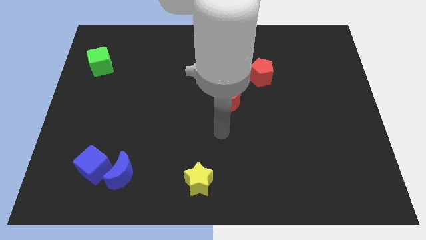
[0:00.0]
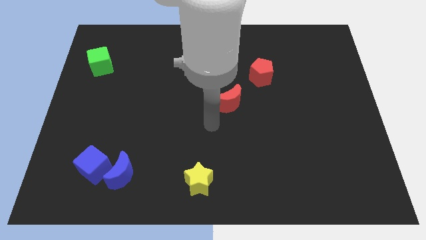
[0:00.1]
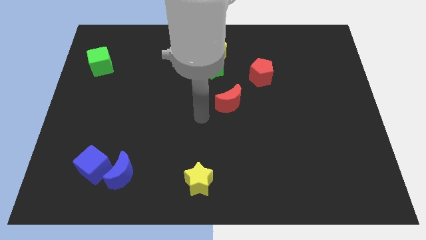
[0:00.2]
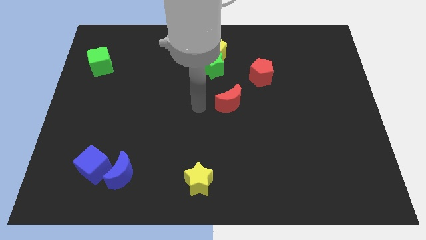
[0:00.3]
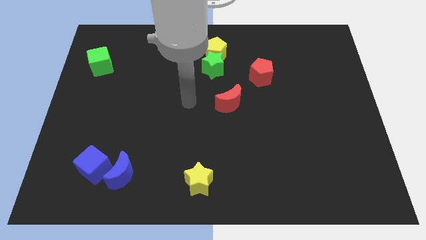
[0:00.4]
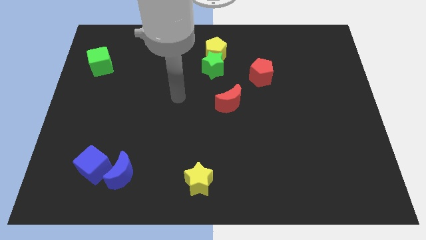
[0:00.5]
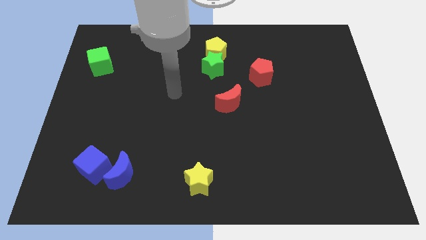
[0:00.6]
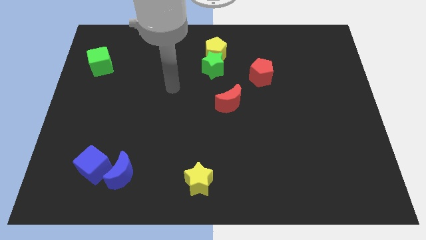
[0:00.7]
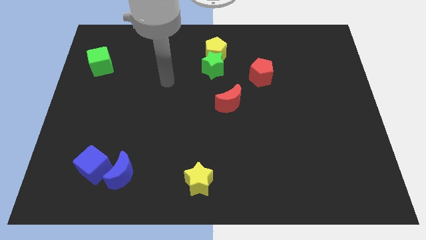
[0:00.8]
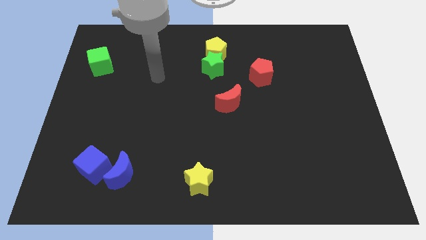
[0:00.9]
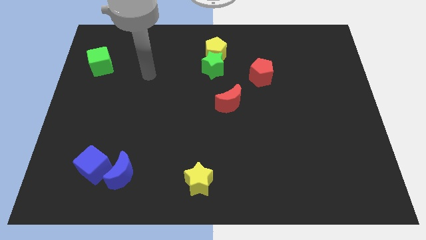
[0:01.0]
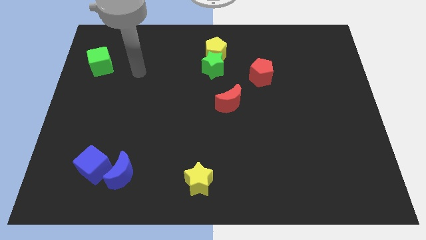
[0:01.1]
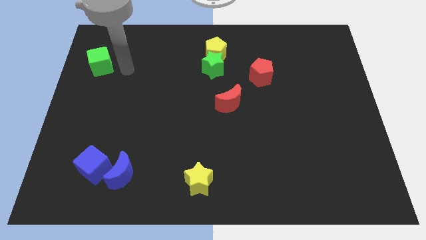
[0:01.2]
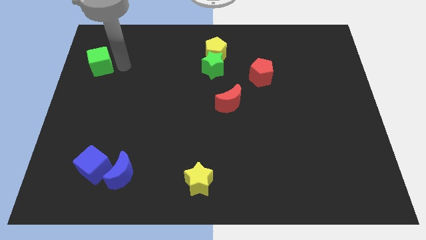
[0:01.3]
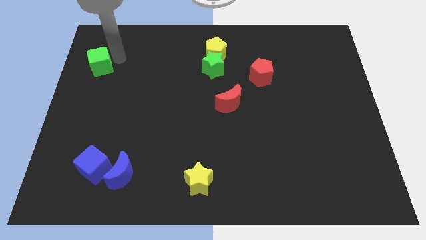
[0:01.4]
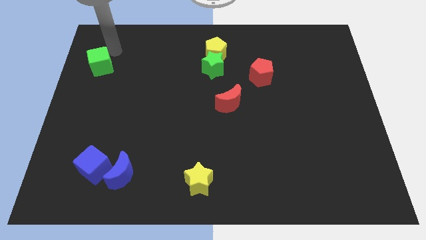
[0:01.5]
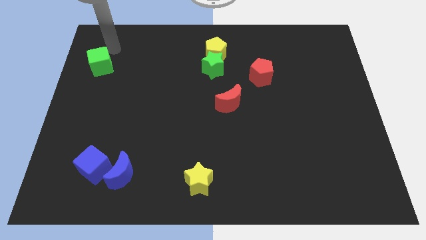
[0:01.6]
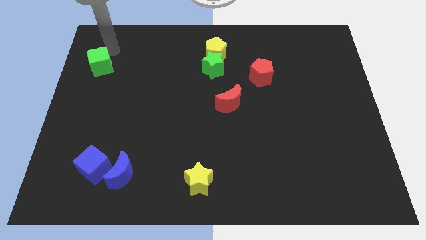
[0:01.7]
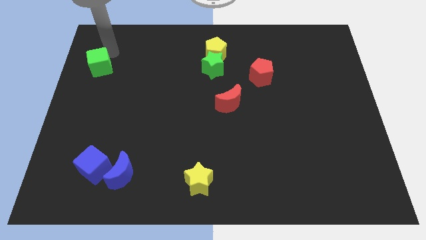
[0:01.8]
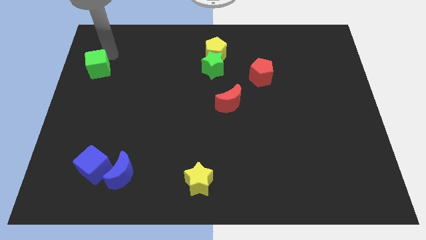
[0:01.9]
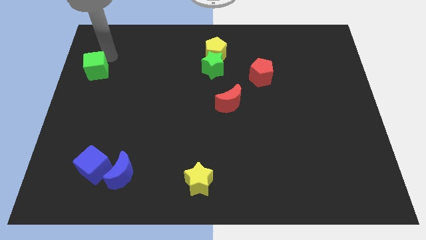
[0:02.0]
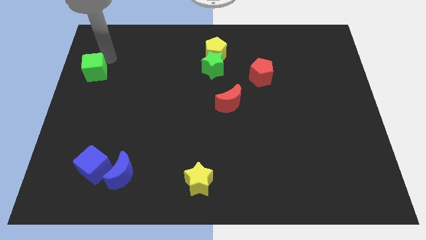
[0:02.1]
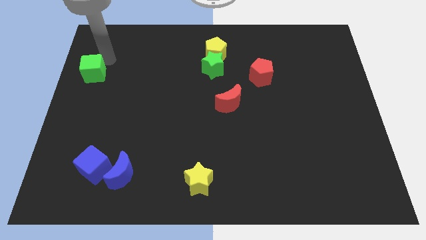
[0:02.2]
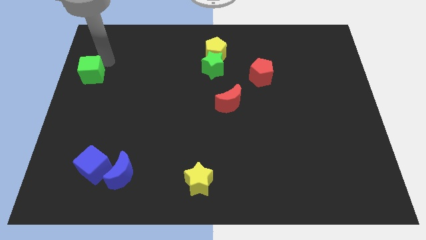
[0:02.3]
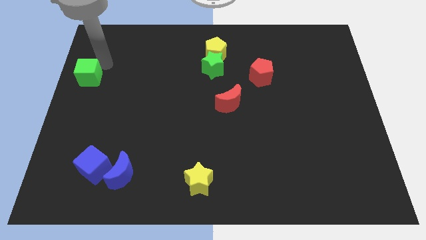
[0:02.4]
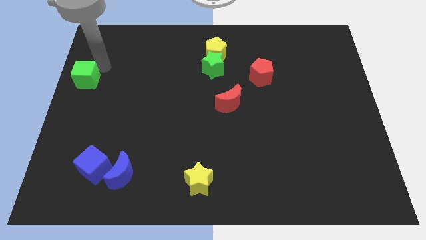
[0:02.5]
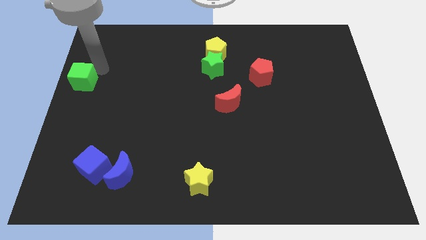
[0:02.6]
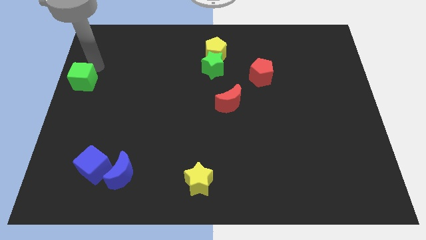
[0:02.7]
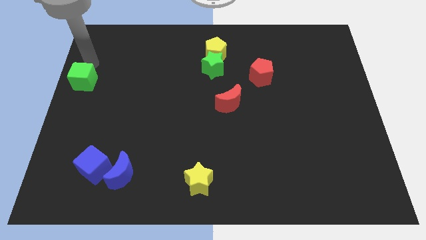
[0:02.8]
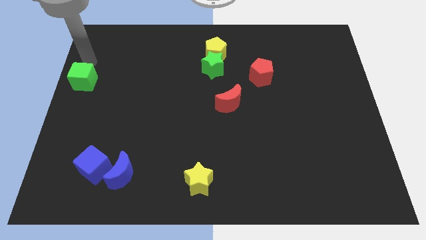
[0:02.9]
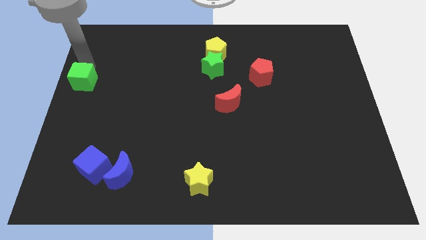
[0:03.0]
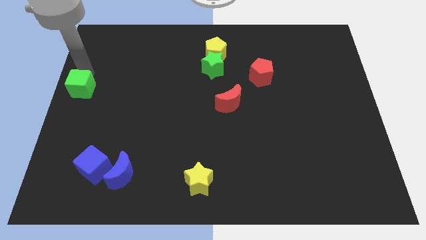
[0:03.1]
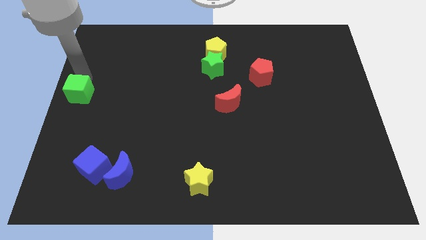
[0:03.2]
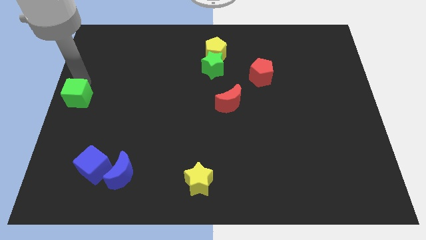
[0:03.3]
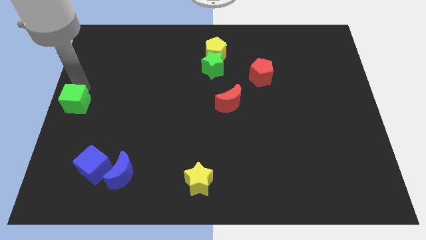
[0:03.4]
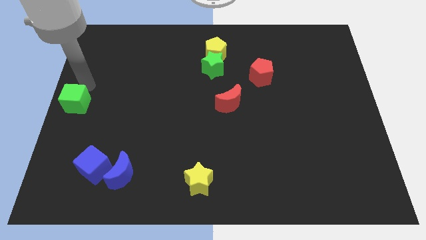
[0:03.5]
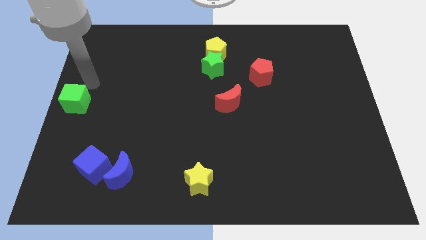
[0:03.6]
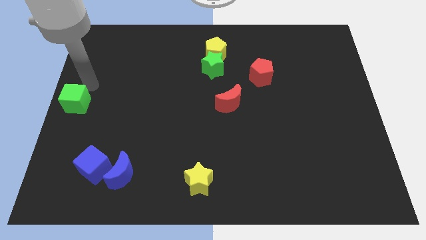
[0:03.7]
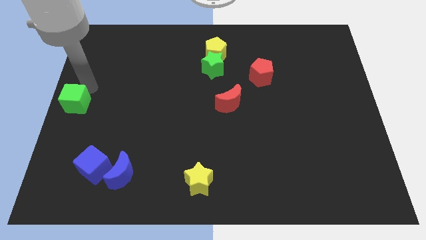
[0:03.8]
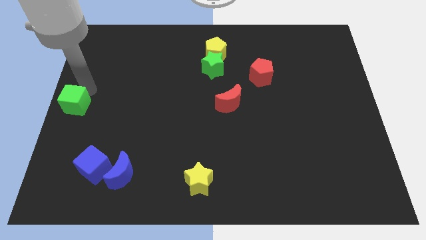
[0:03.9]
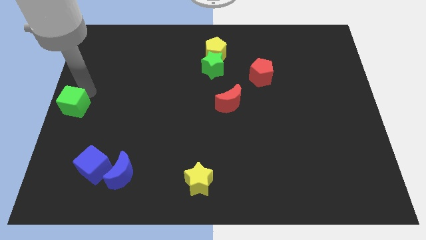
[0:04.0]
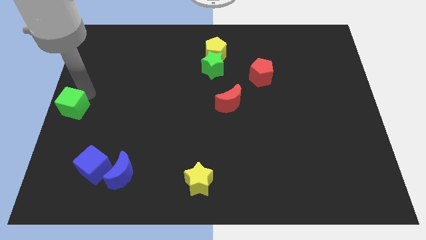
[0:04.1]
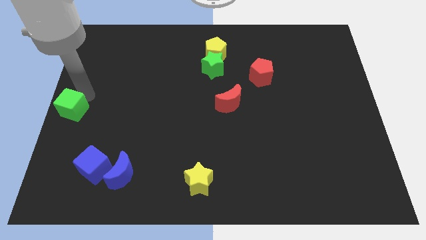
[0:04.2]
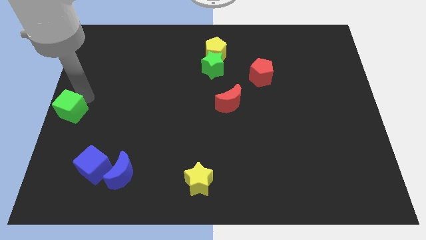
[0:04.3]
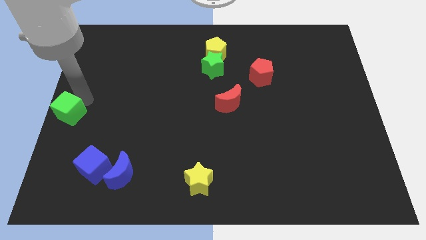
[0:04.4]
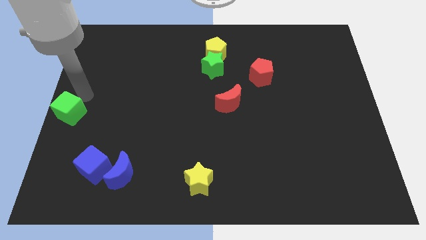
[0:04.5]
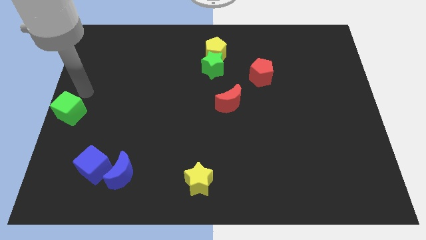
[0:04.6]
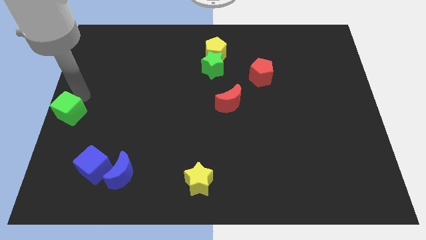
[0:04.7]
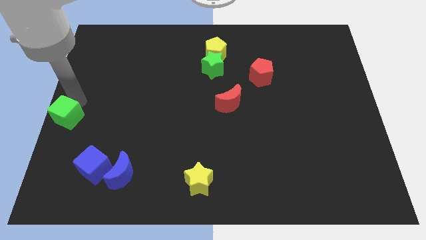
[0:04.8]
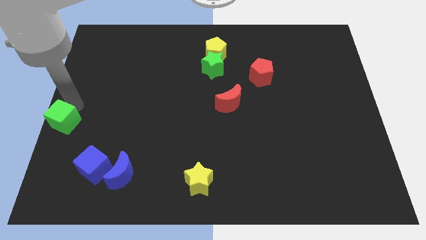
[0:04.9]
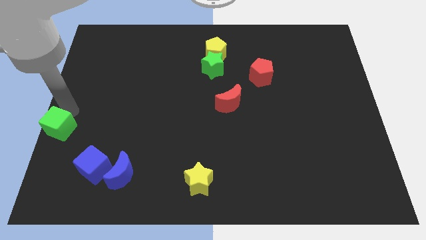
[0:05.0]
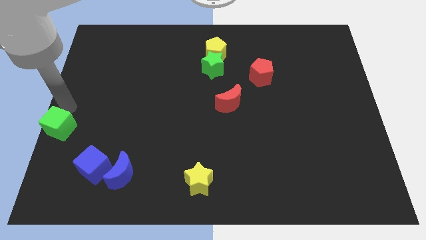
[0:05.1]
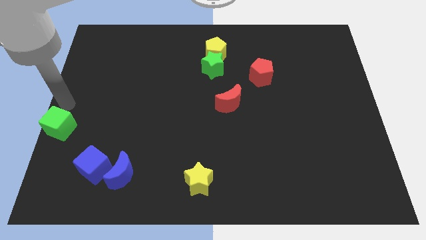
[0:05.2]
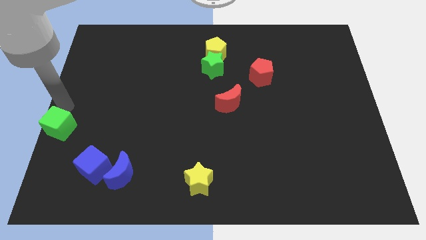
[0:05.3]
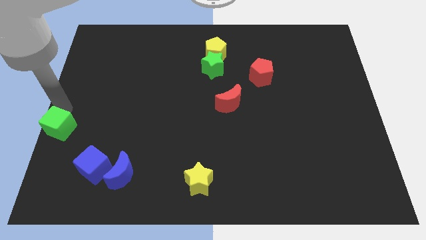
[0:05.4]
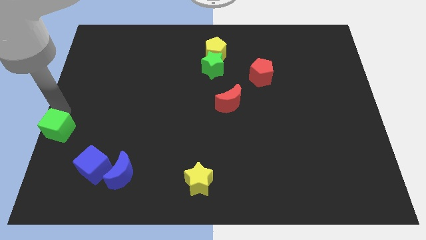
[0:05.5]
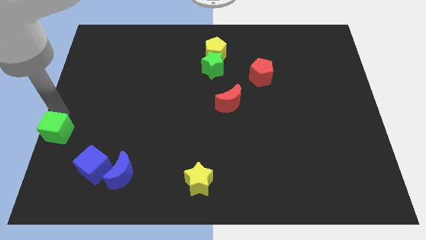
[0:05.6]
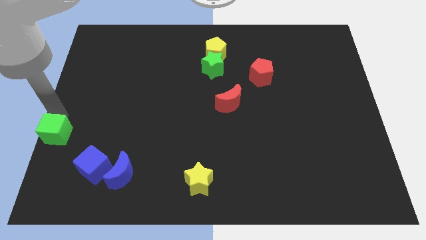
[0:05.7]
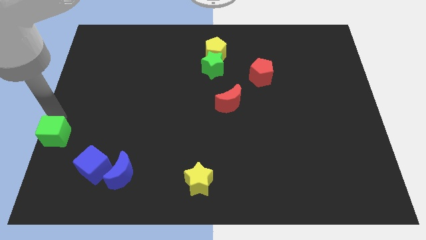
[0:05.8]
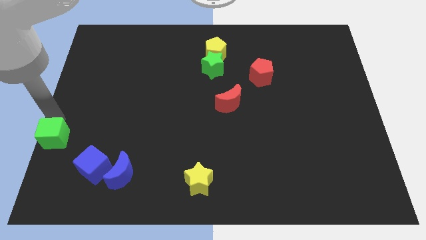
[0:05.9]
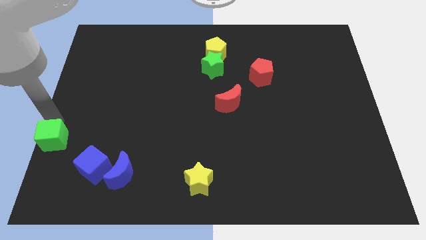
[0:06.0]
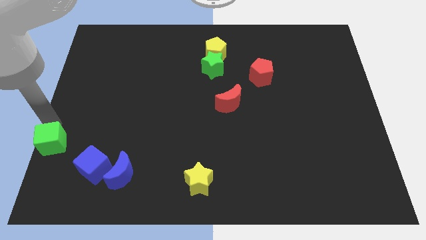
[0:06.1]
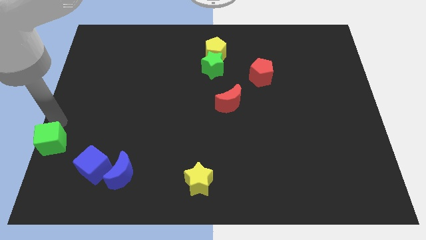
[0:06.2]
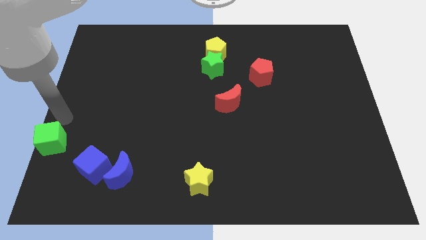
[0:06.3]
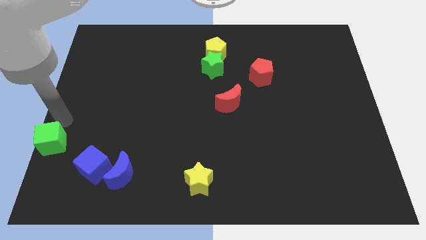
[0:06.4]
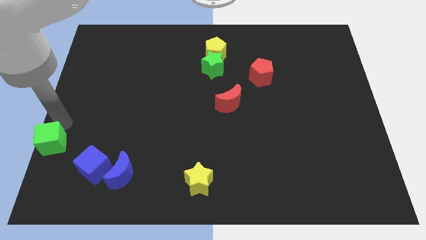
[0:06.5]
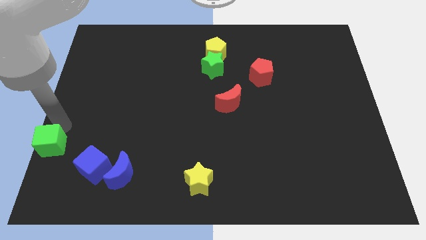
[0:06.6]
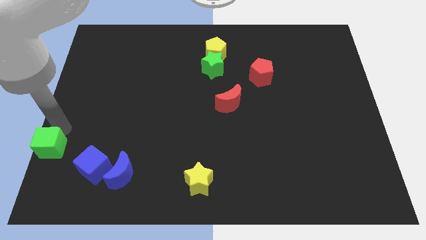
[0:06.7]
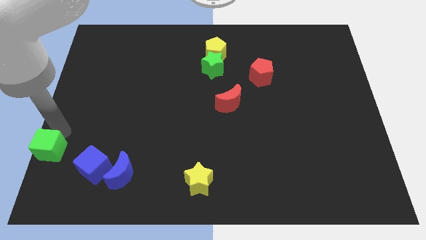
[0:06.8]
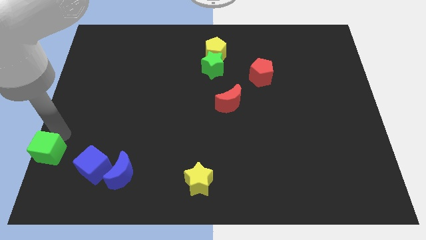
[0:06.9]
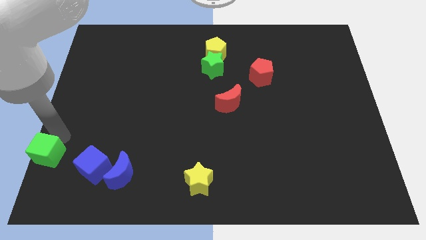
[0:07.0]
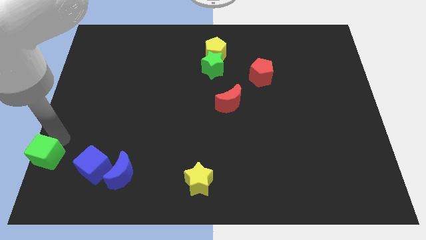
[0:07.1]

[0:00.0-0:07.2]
slide the green cube to the bottom left corner
